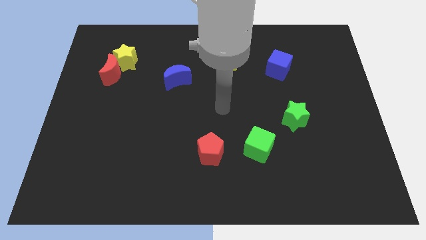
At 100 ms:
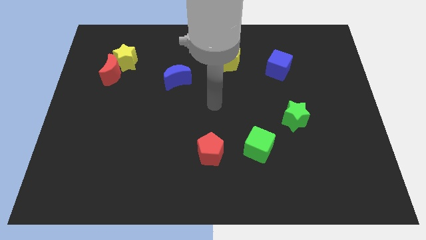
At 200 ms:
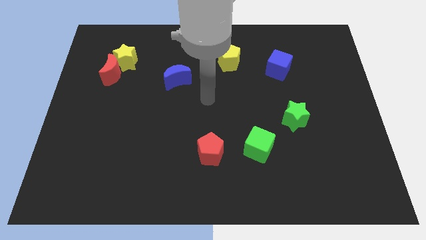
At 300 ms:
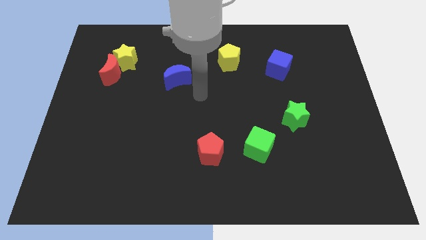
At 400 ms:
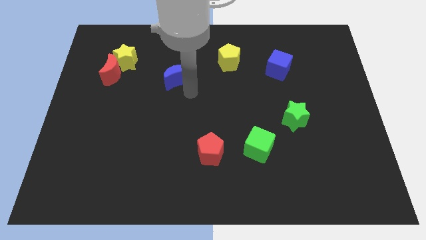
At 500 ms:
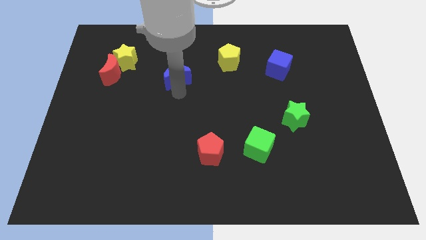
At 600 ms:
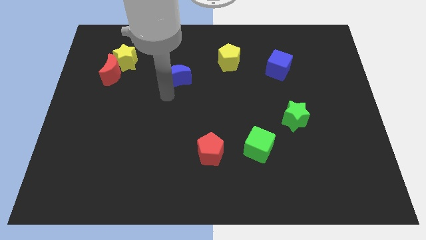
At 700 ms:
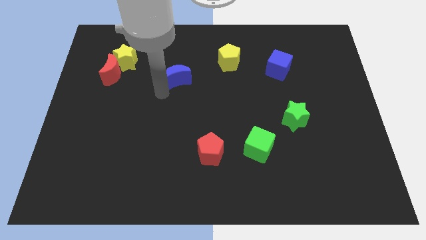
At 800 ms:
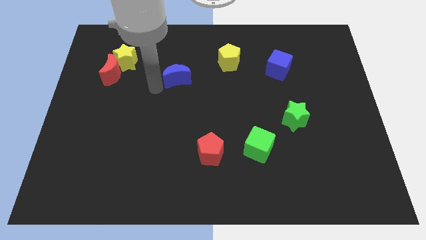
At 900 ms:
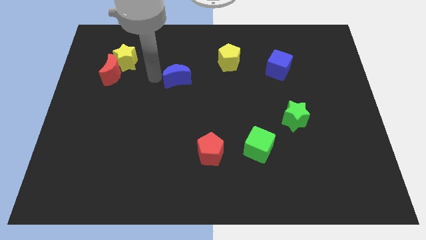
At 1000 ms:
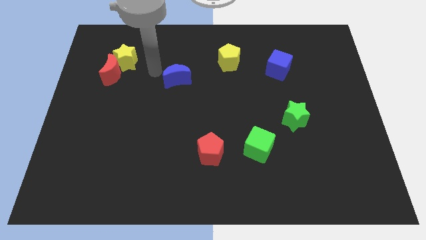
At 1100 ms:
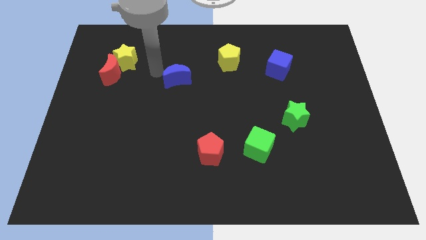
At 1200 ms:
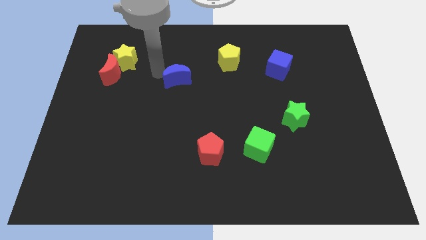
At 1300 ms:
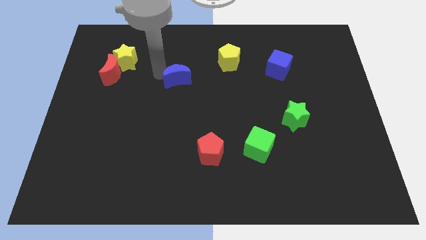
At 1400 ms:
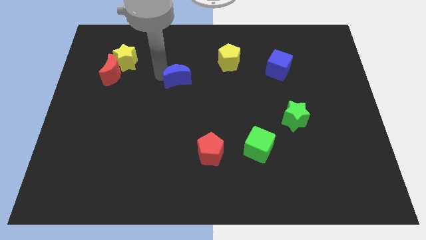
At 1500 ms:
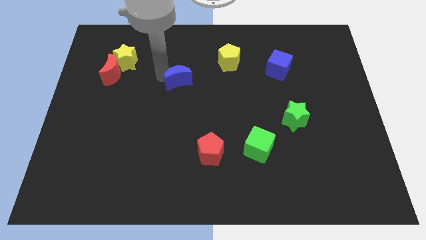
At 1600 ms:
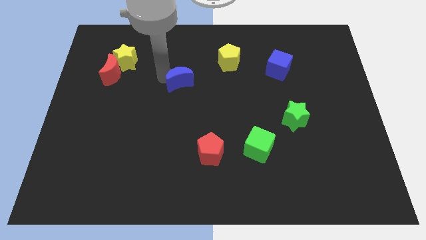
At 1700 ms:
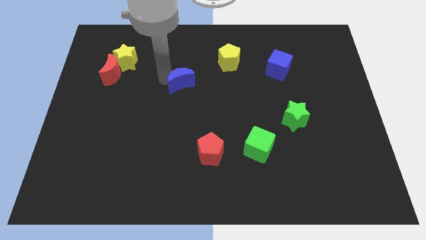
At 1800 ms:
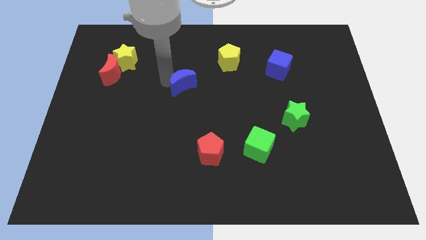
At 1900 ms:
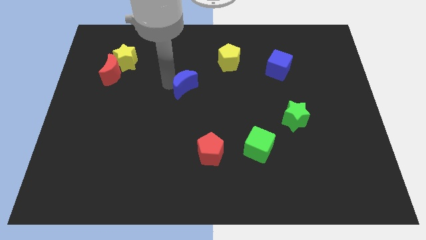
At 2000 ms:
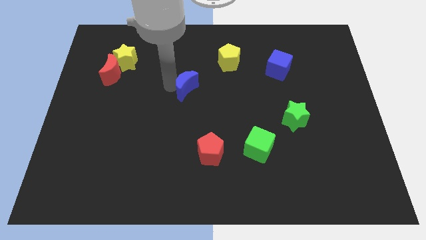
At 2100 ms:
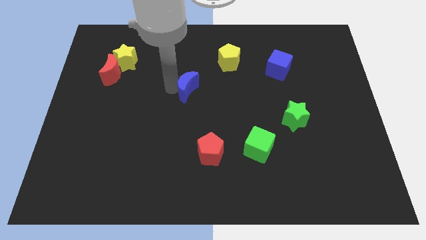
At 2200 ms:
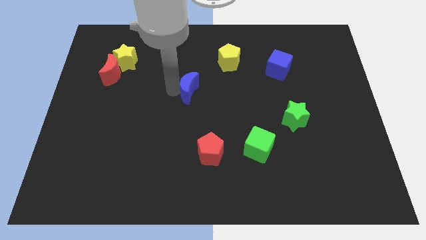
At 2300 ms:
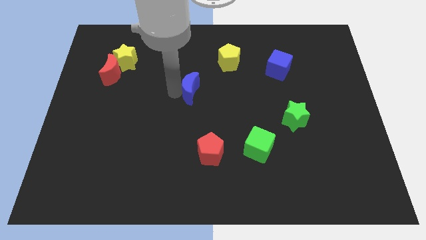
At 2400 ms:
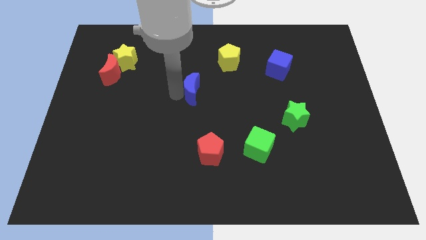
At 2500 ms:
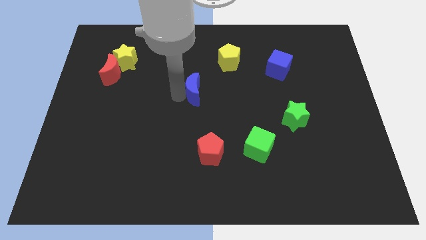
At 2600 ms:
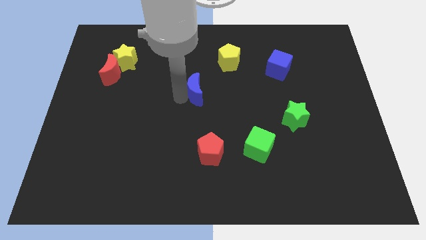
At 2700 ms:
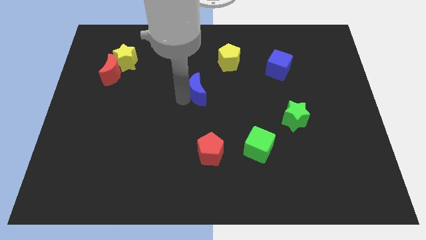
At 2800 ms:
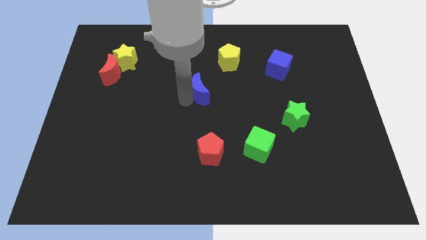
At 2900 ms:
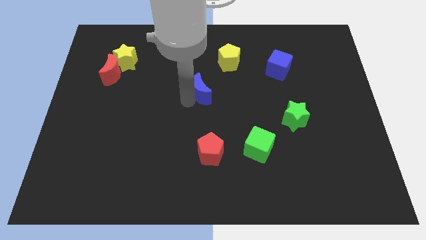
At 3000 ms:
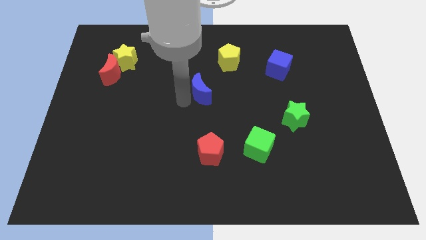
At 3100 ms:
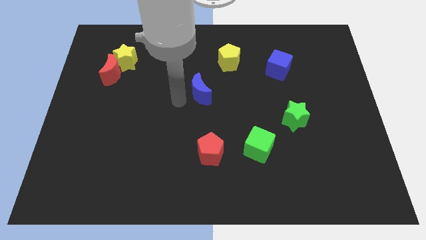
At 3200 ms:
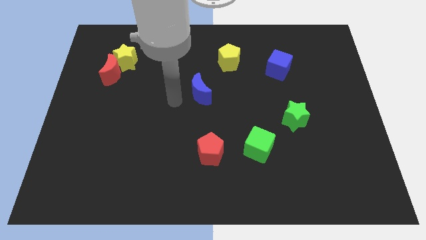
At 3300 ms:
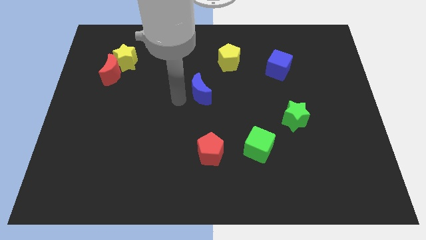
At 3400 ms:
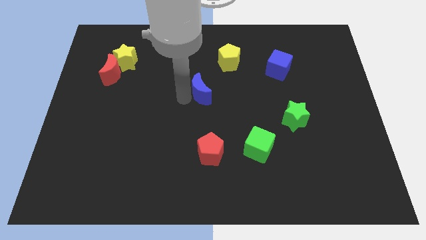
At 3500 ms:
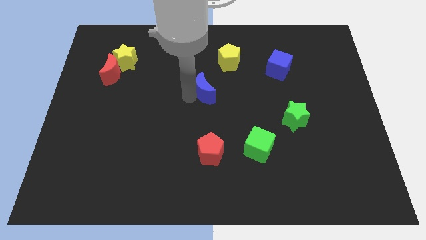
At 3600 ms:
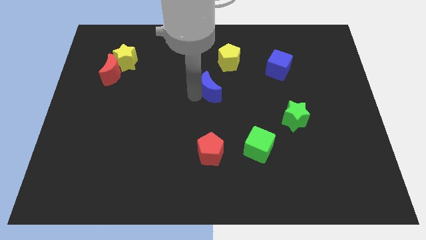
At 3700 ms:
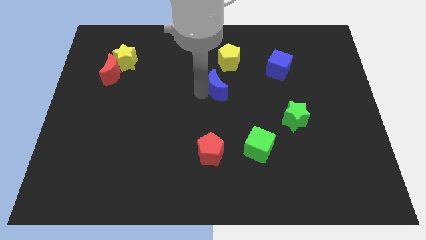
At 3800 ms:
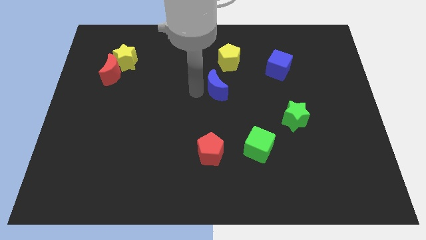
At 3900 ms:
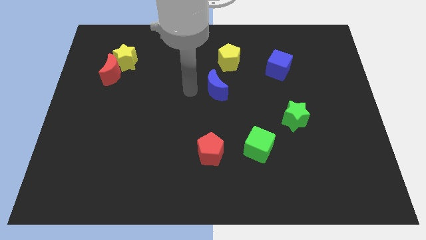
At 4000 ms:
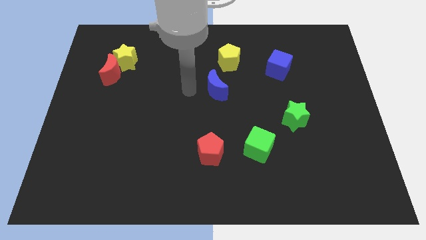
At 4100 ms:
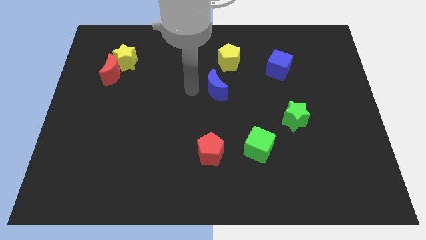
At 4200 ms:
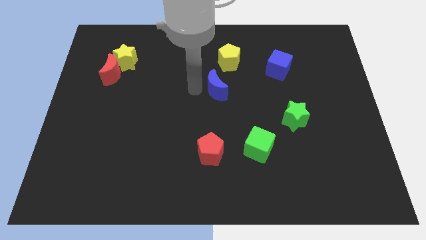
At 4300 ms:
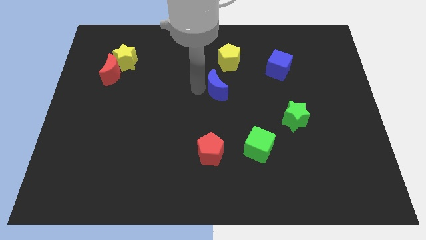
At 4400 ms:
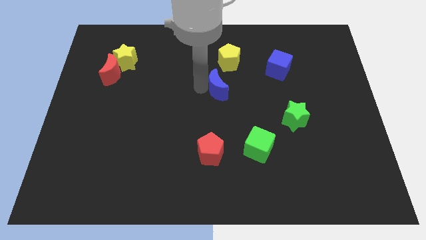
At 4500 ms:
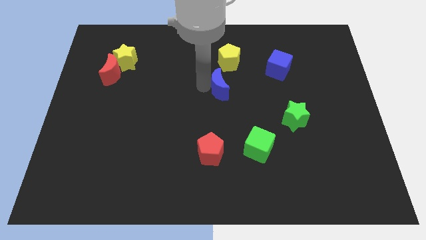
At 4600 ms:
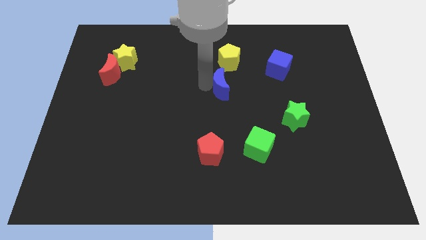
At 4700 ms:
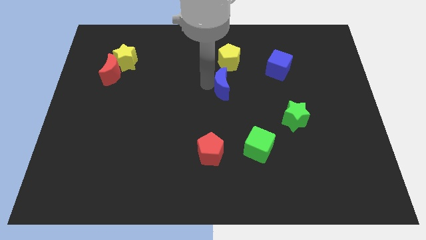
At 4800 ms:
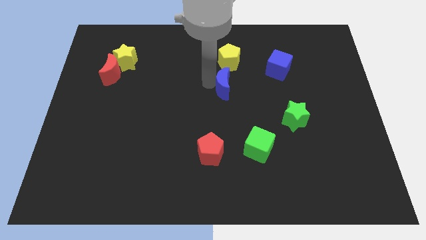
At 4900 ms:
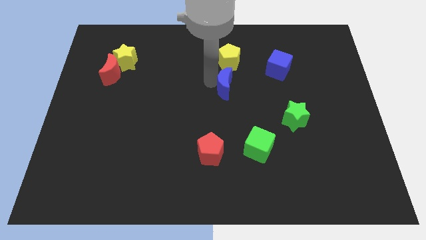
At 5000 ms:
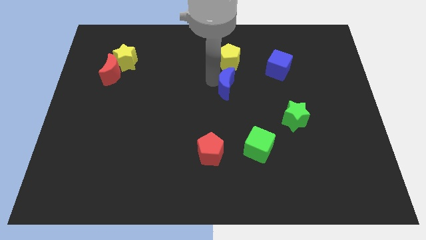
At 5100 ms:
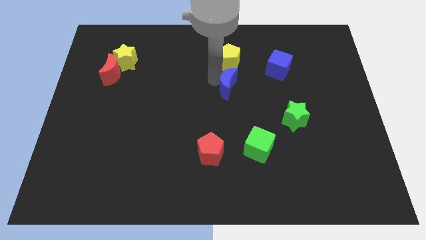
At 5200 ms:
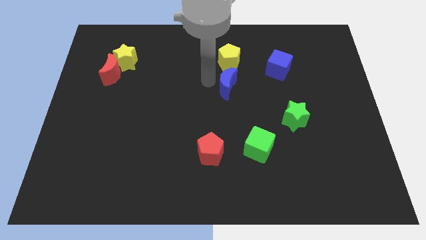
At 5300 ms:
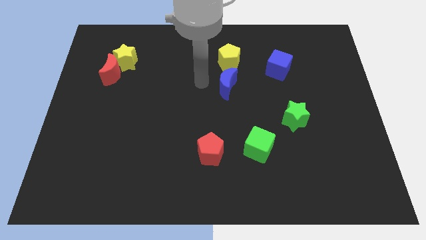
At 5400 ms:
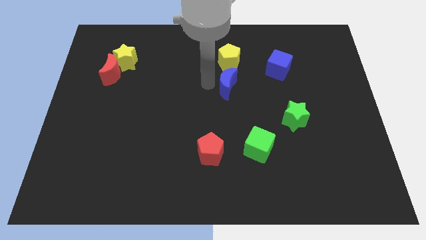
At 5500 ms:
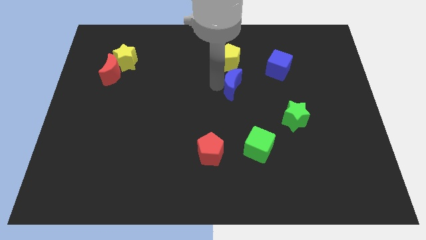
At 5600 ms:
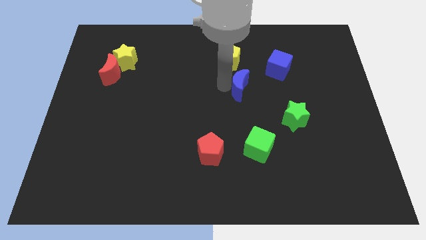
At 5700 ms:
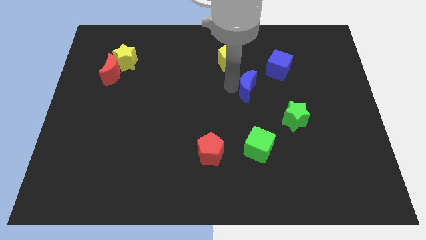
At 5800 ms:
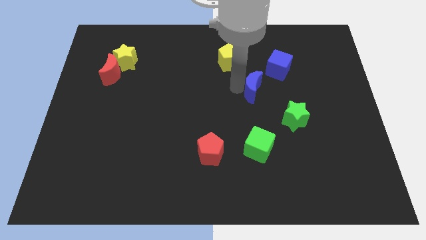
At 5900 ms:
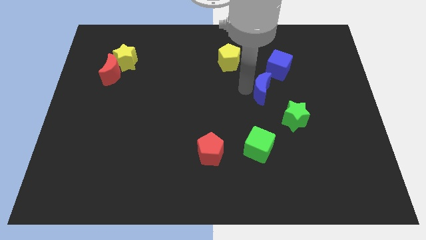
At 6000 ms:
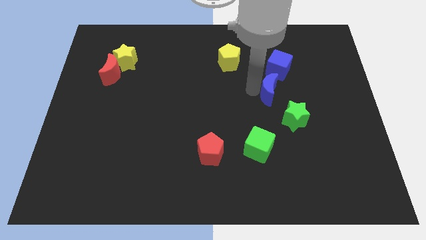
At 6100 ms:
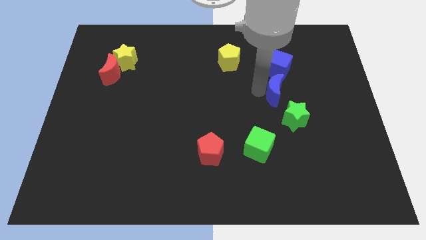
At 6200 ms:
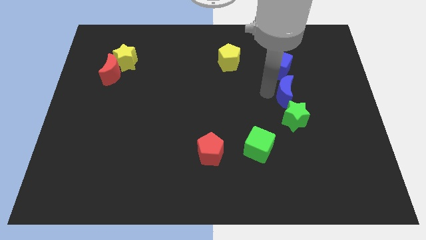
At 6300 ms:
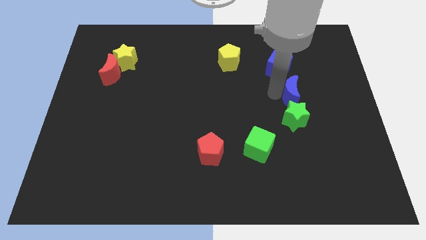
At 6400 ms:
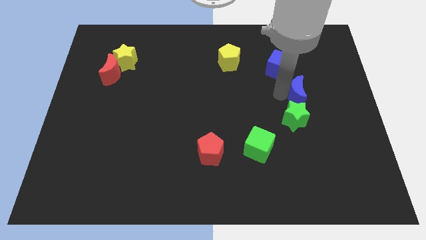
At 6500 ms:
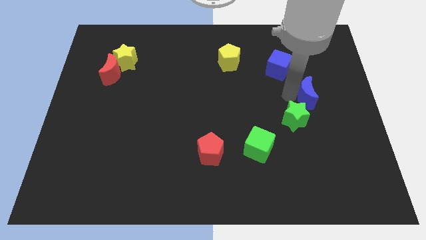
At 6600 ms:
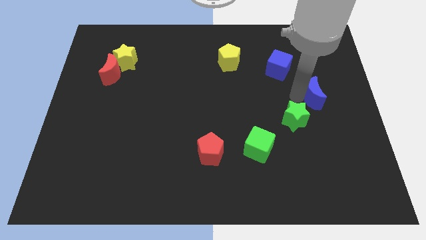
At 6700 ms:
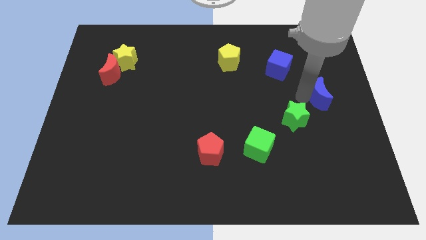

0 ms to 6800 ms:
slide the blue moon to the right side
